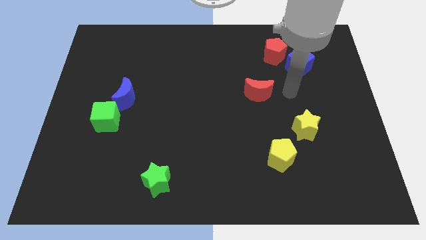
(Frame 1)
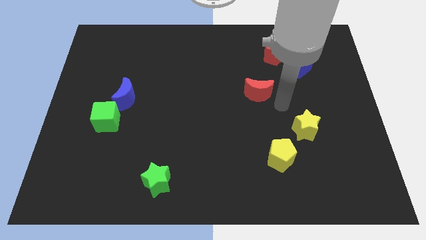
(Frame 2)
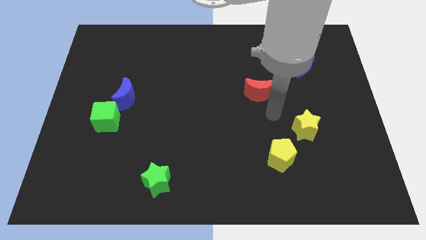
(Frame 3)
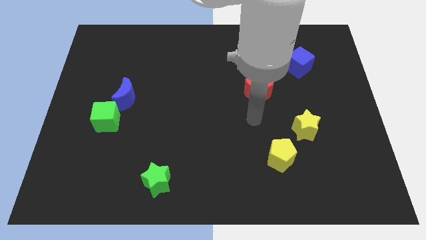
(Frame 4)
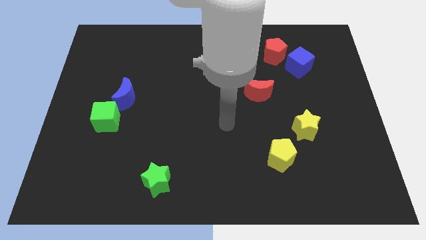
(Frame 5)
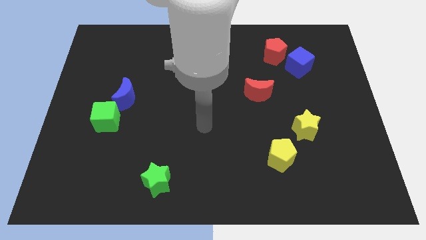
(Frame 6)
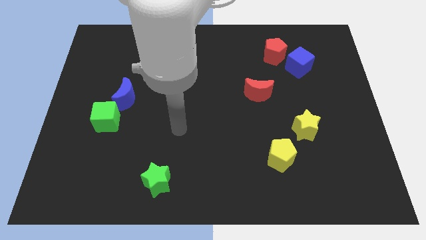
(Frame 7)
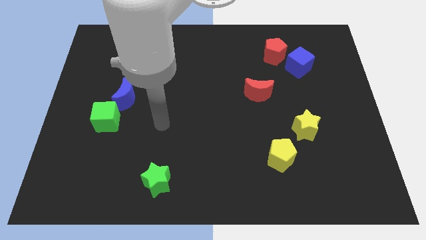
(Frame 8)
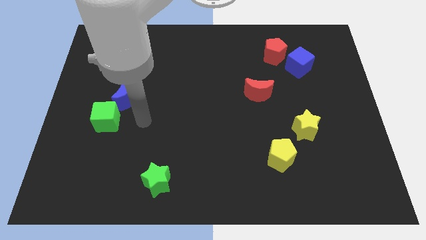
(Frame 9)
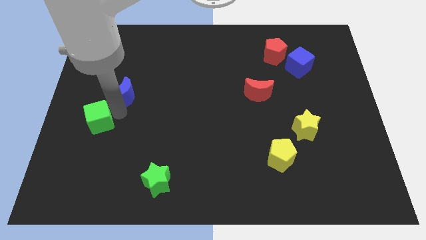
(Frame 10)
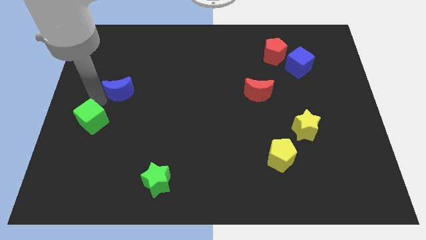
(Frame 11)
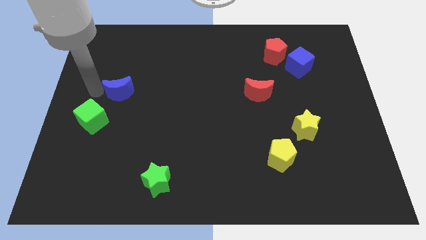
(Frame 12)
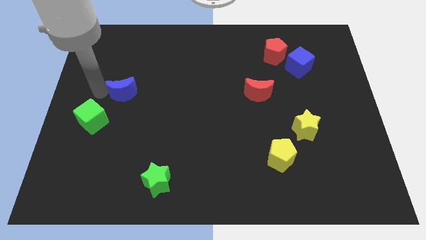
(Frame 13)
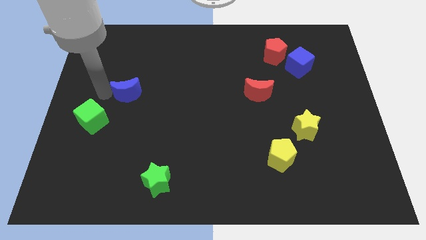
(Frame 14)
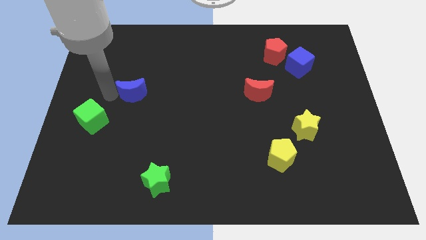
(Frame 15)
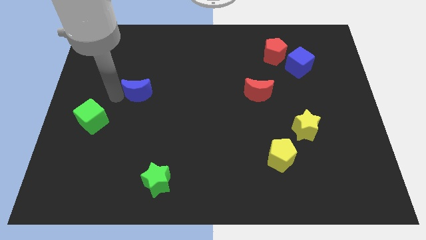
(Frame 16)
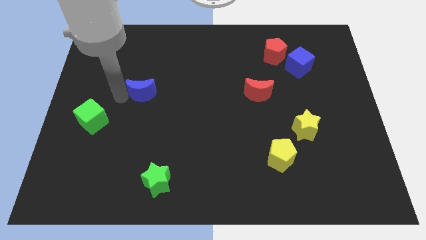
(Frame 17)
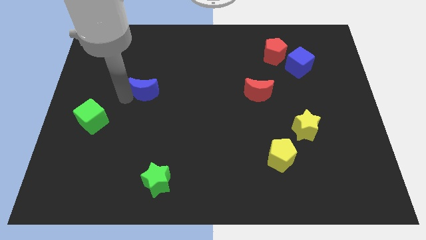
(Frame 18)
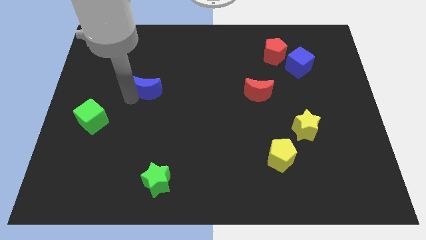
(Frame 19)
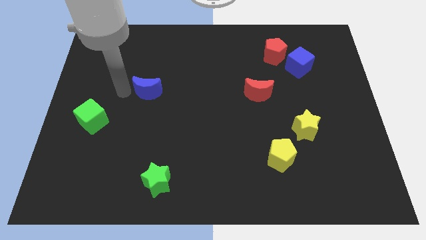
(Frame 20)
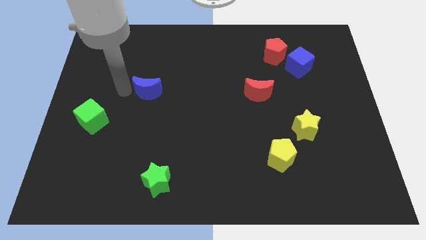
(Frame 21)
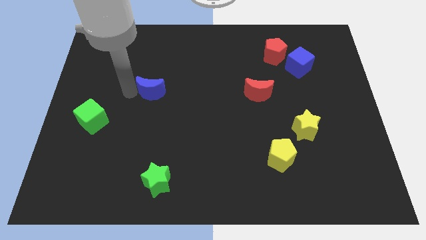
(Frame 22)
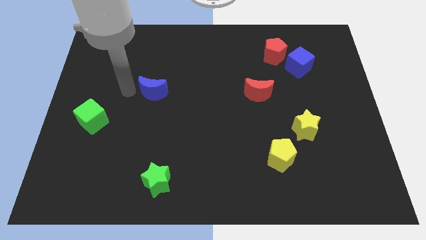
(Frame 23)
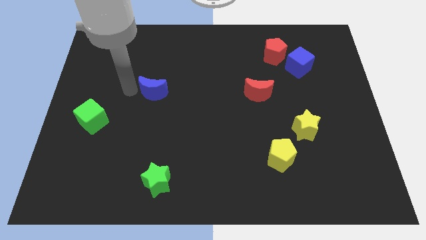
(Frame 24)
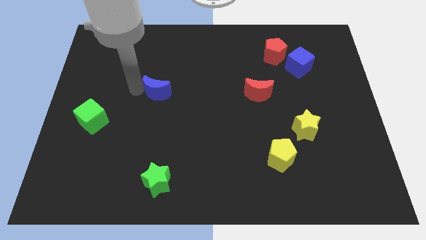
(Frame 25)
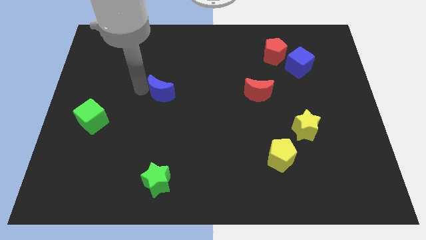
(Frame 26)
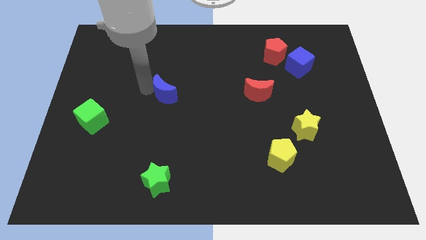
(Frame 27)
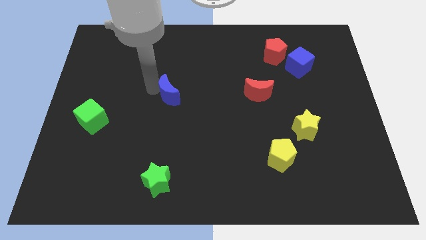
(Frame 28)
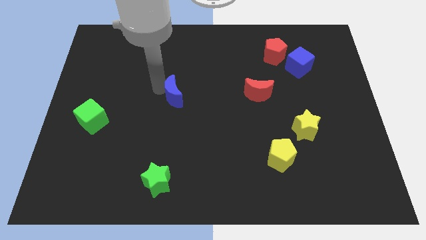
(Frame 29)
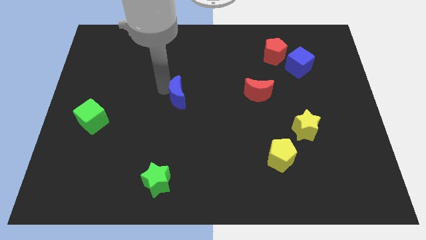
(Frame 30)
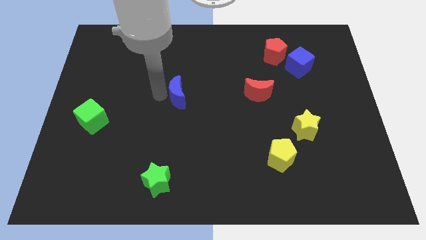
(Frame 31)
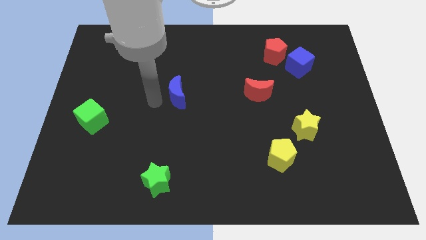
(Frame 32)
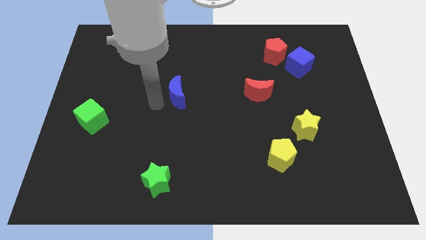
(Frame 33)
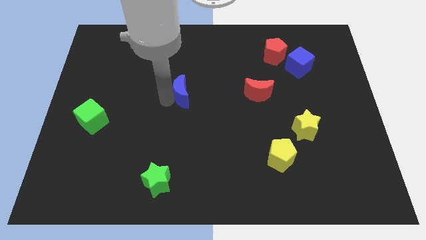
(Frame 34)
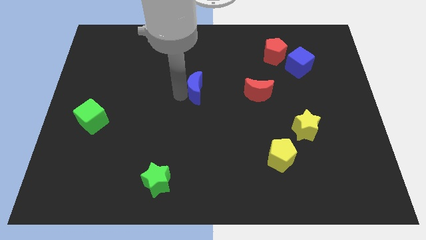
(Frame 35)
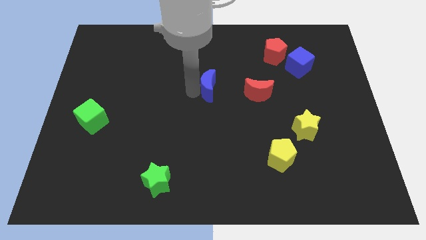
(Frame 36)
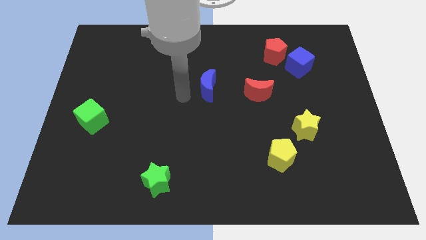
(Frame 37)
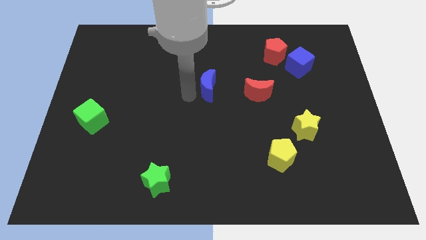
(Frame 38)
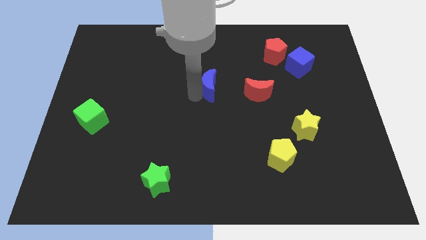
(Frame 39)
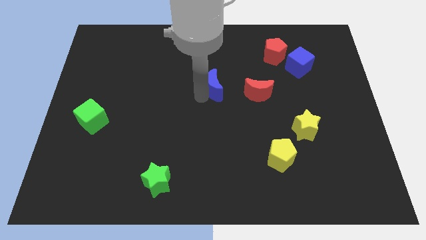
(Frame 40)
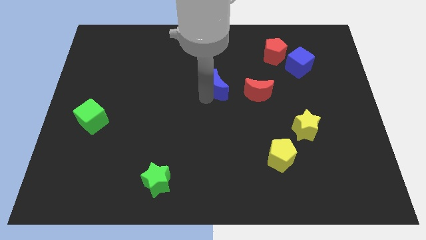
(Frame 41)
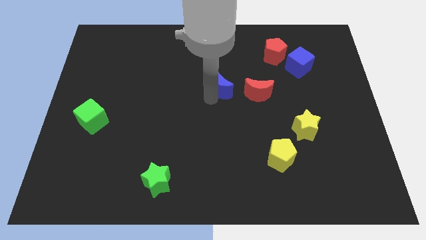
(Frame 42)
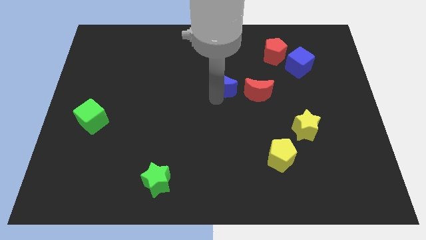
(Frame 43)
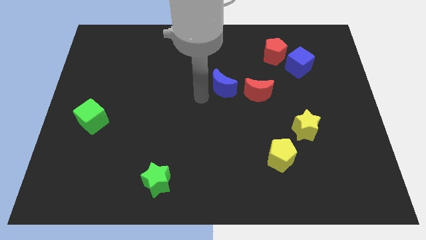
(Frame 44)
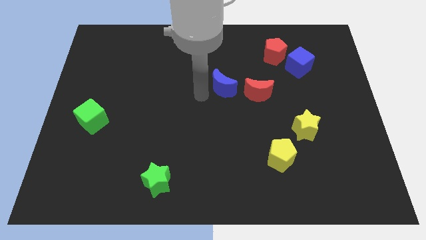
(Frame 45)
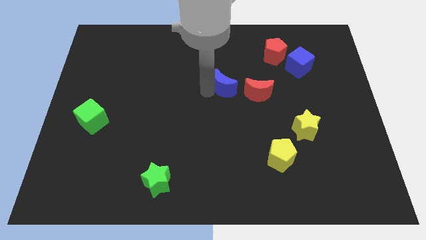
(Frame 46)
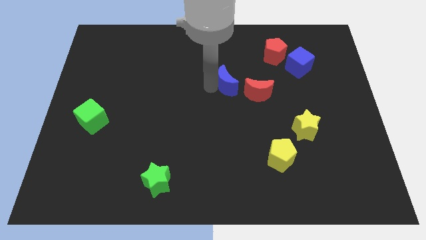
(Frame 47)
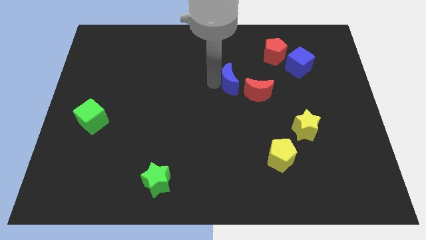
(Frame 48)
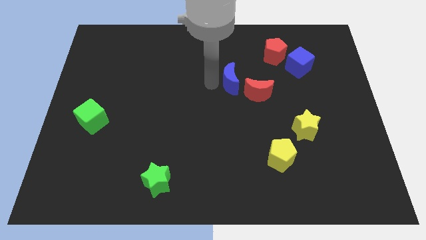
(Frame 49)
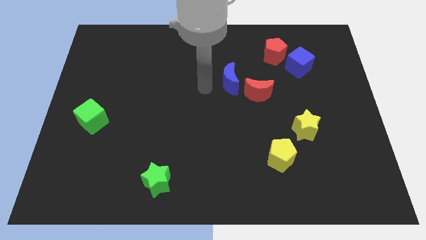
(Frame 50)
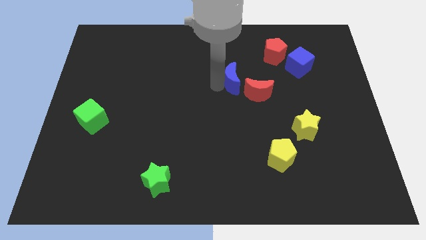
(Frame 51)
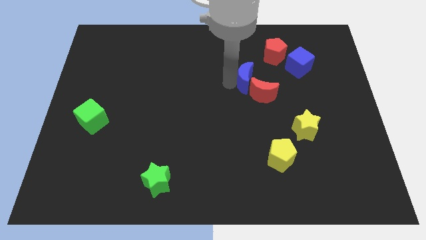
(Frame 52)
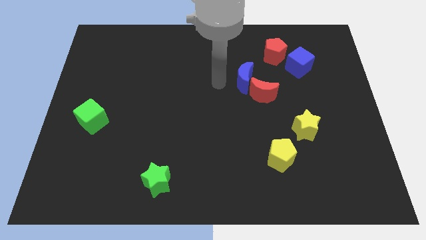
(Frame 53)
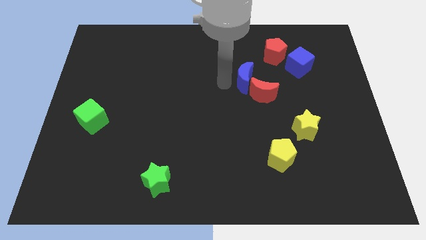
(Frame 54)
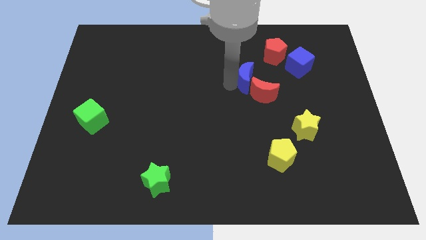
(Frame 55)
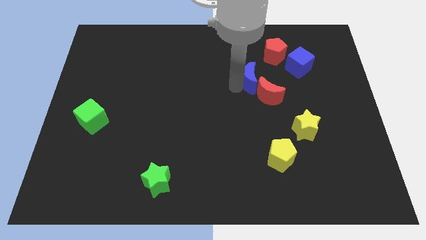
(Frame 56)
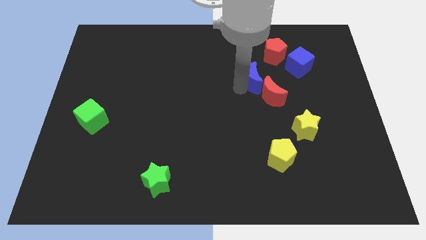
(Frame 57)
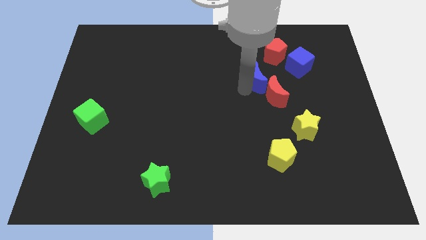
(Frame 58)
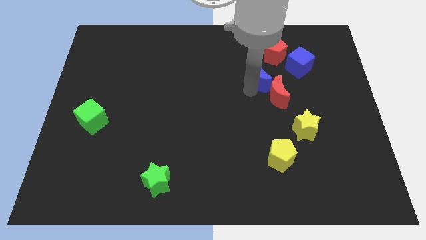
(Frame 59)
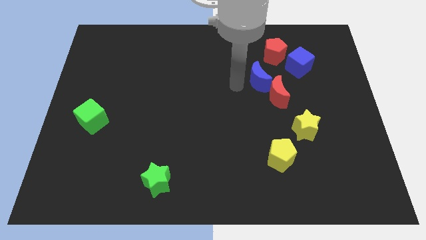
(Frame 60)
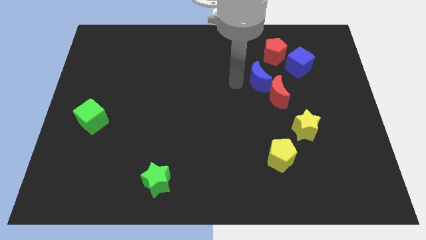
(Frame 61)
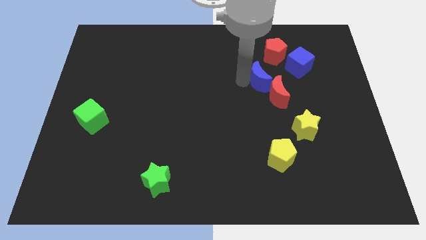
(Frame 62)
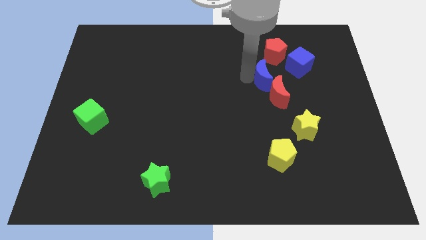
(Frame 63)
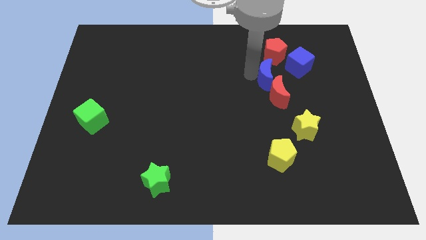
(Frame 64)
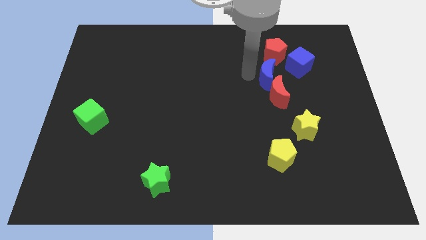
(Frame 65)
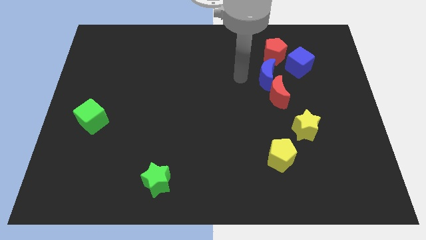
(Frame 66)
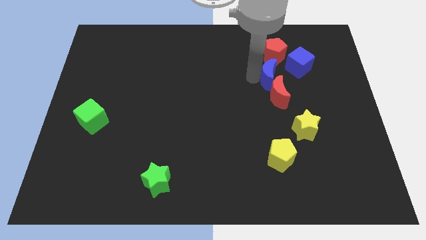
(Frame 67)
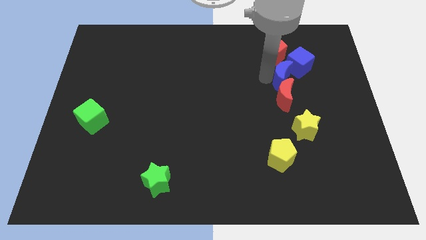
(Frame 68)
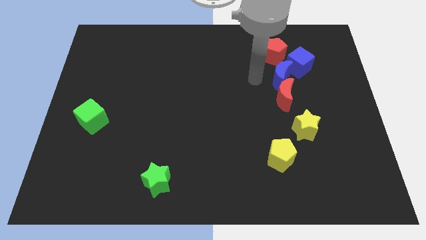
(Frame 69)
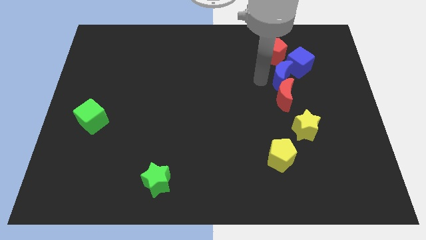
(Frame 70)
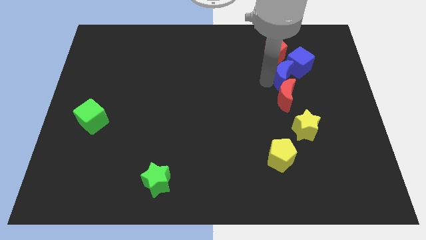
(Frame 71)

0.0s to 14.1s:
put the blue moon diagonally down and to the right of the red pentagon
